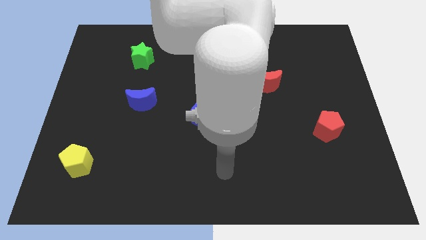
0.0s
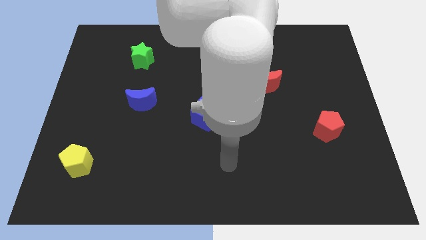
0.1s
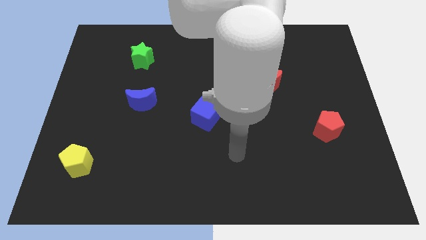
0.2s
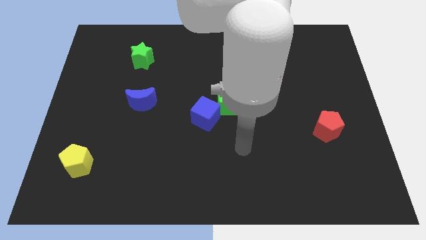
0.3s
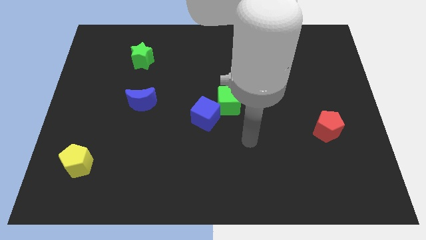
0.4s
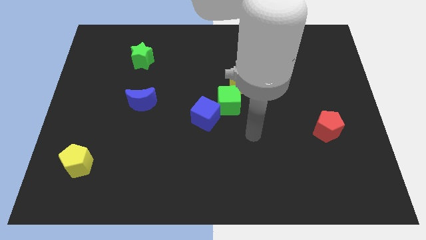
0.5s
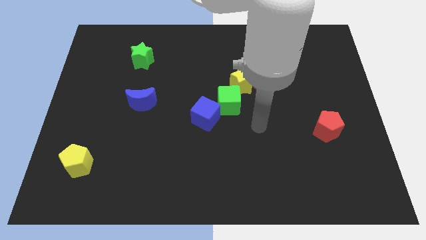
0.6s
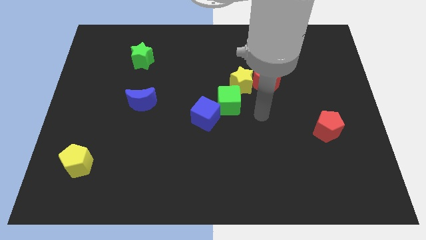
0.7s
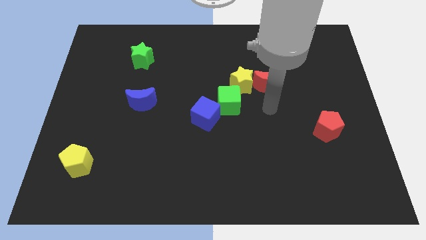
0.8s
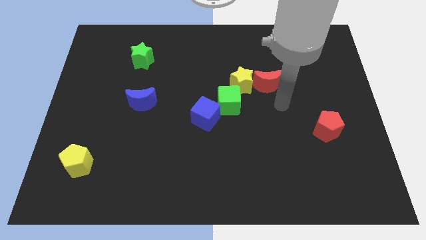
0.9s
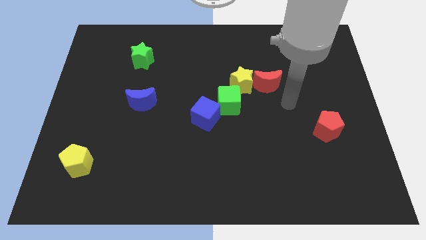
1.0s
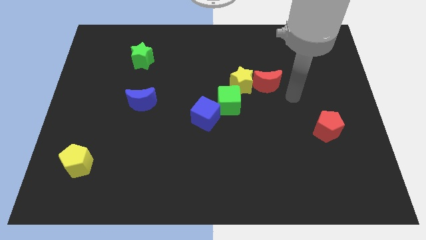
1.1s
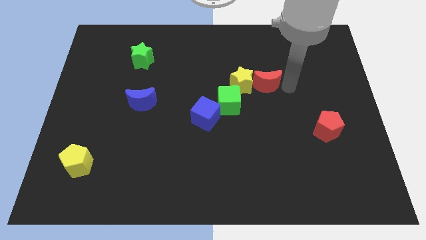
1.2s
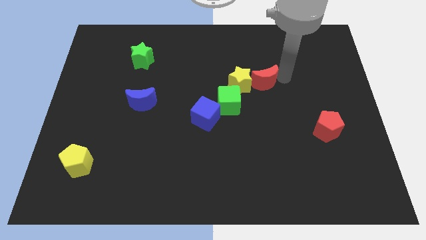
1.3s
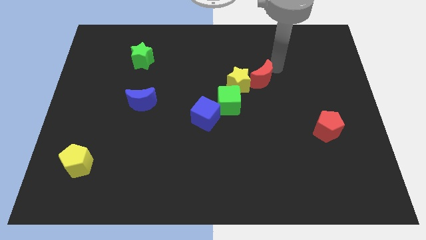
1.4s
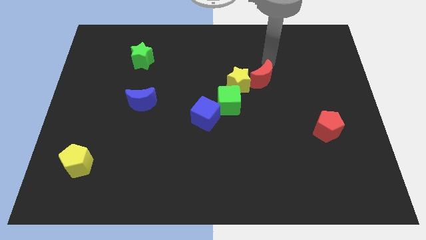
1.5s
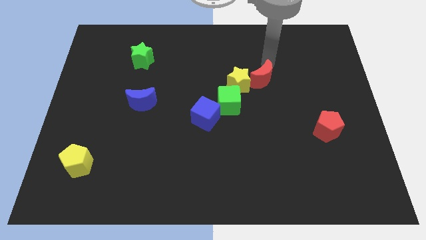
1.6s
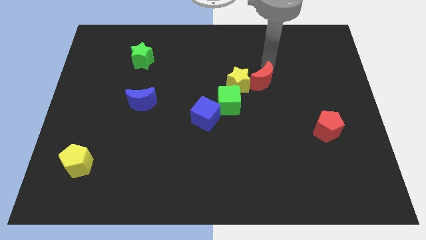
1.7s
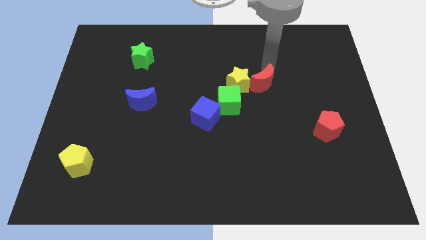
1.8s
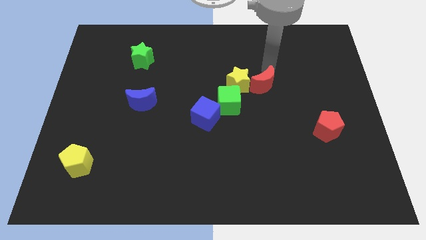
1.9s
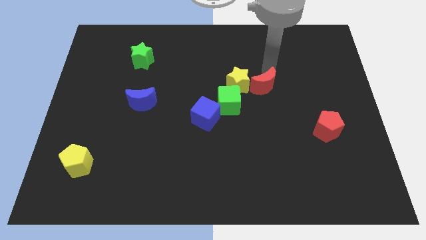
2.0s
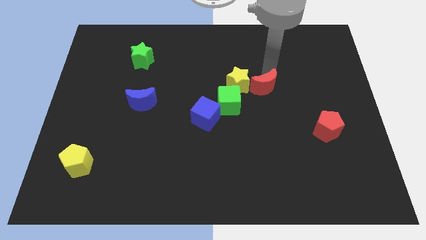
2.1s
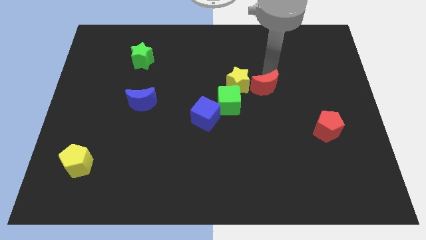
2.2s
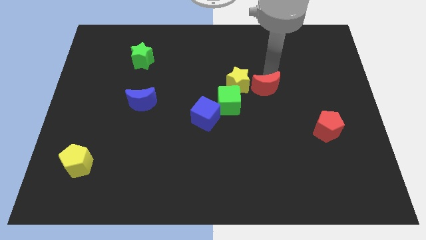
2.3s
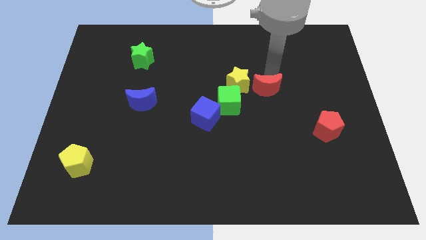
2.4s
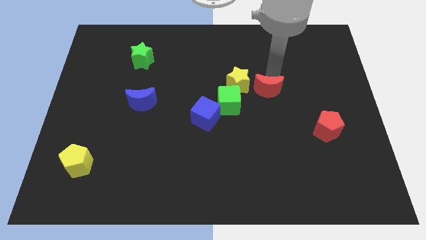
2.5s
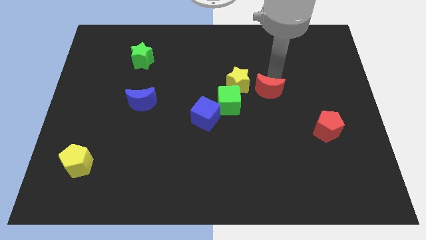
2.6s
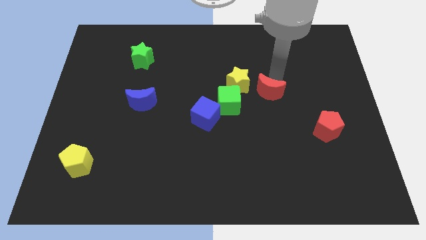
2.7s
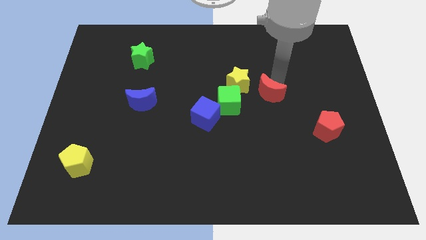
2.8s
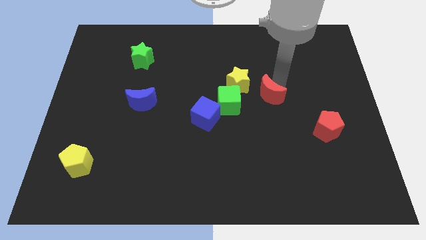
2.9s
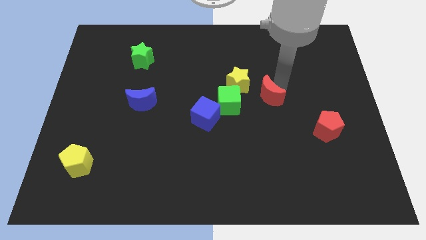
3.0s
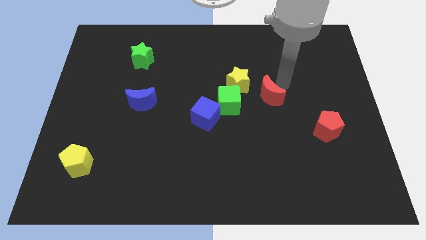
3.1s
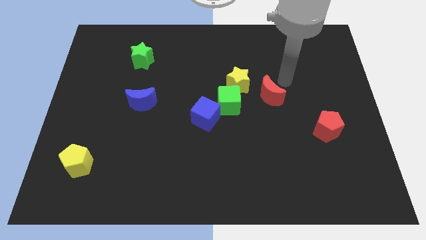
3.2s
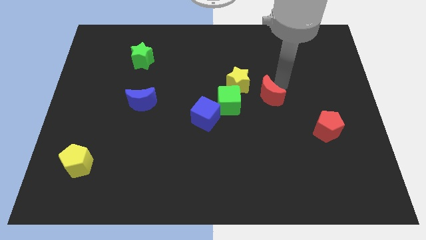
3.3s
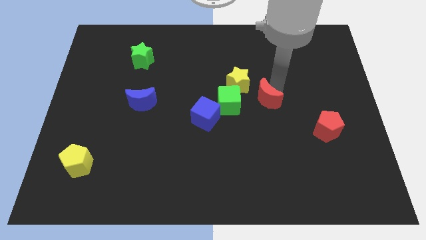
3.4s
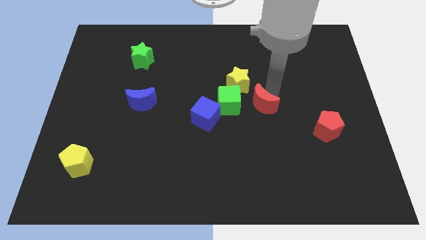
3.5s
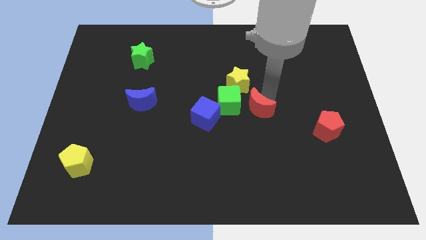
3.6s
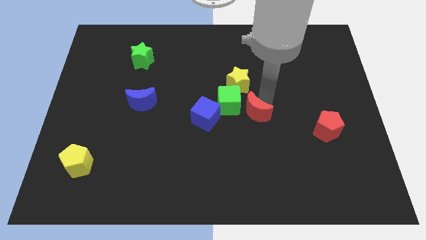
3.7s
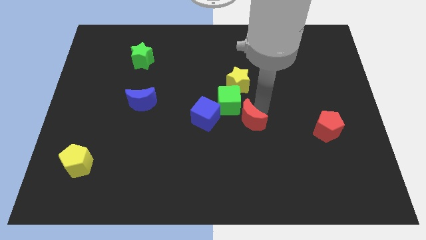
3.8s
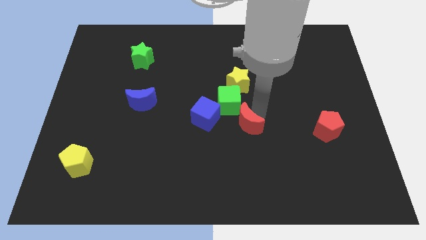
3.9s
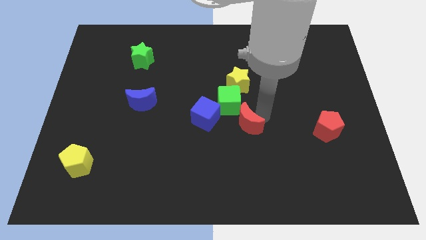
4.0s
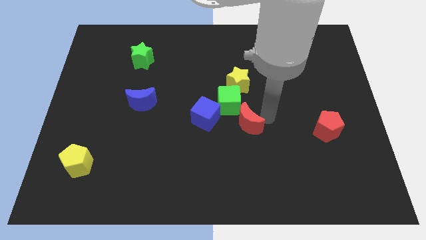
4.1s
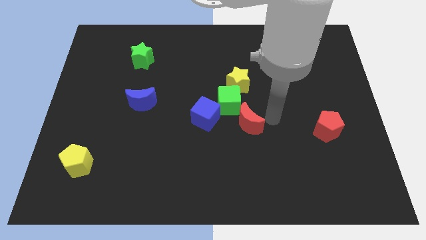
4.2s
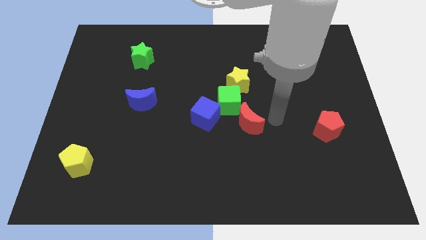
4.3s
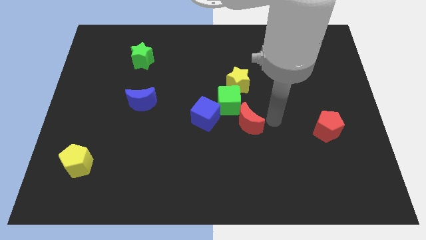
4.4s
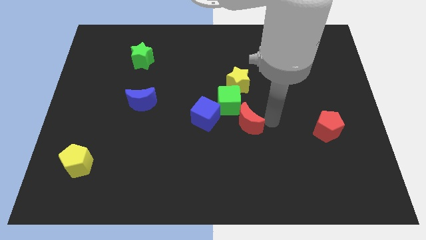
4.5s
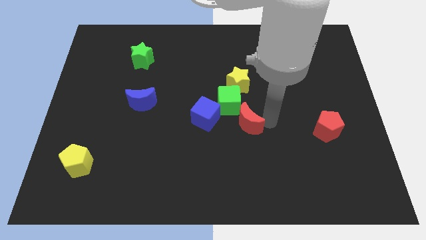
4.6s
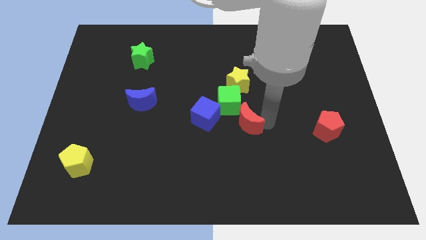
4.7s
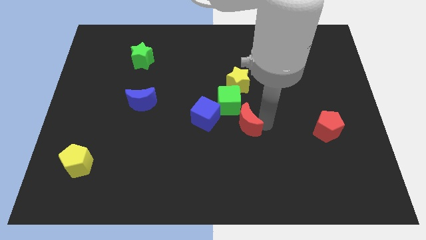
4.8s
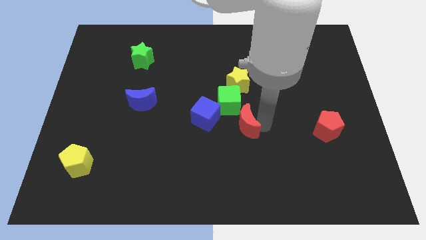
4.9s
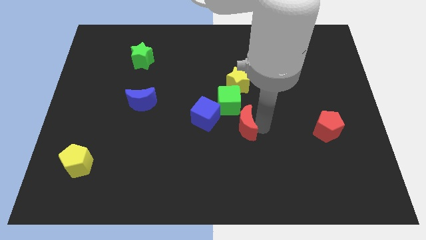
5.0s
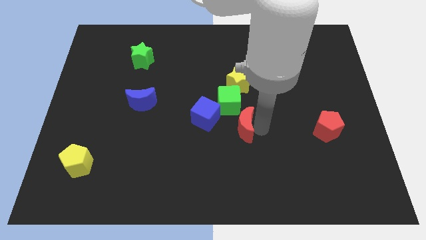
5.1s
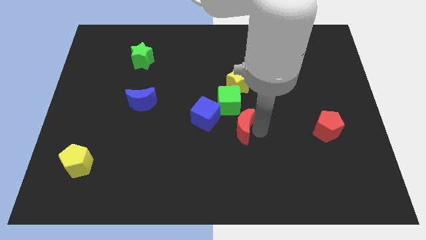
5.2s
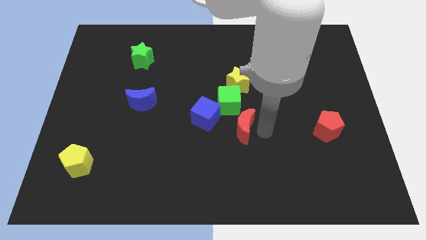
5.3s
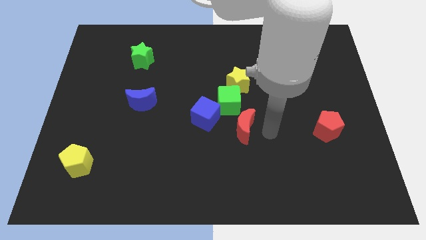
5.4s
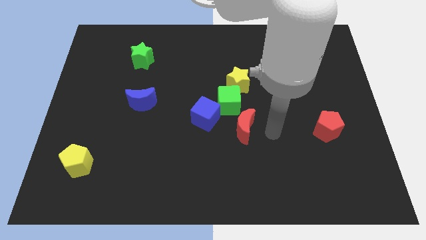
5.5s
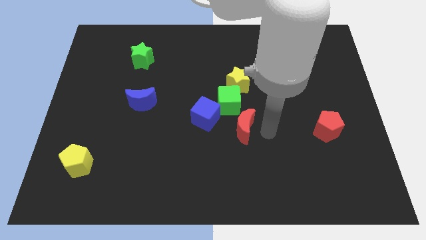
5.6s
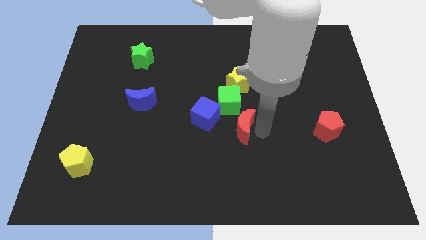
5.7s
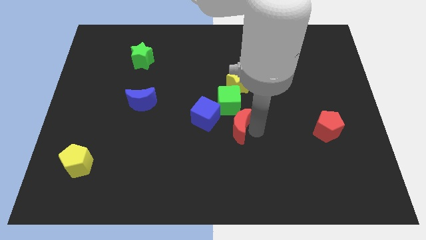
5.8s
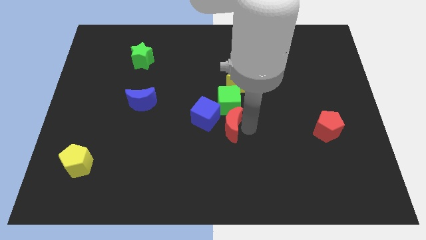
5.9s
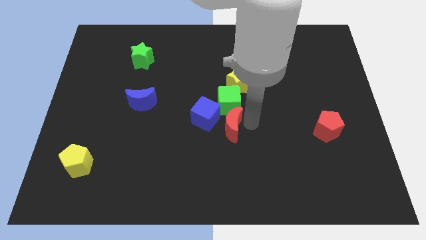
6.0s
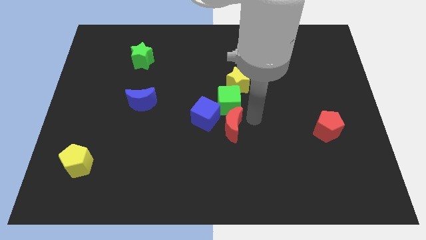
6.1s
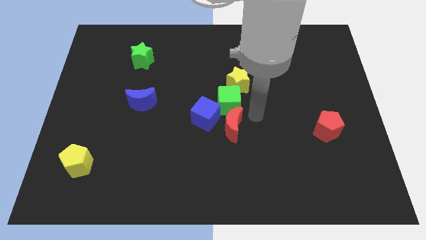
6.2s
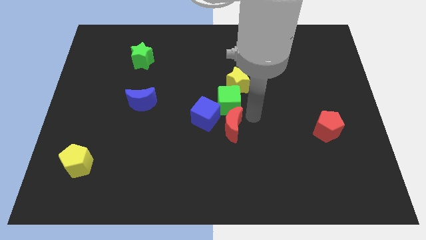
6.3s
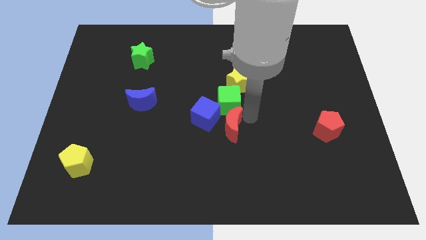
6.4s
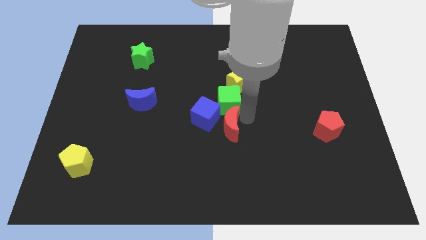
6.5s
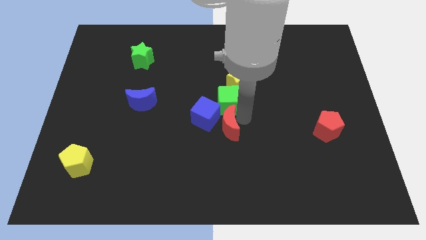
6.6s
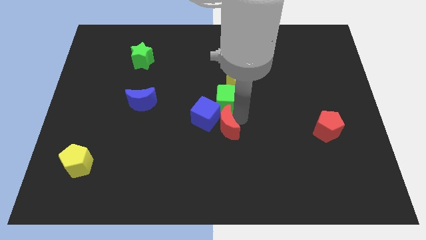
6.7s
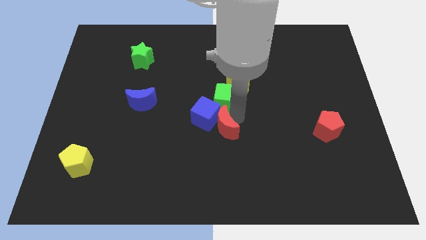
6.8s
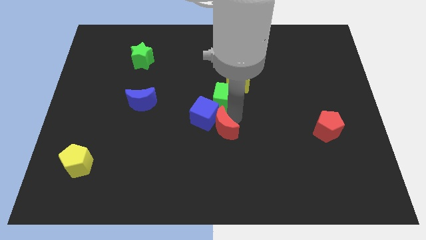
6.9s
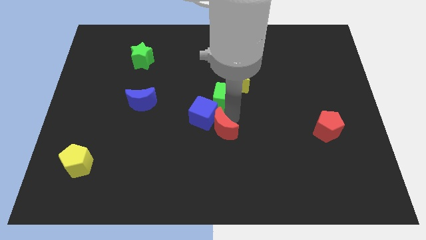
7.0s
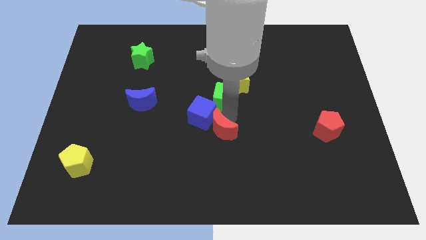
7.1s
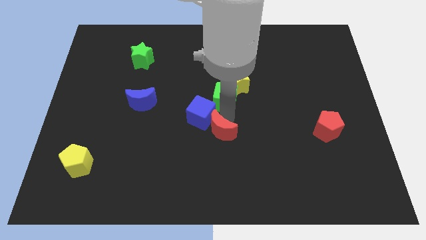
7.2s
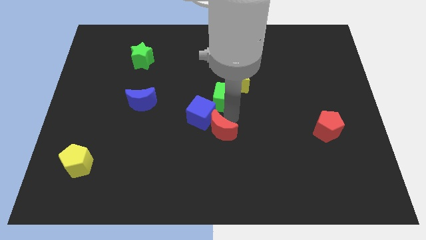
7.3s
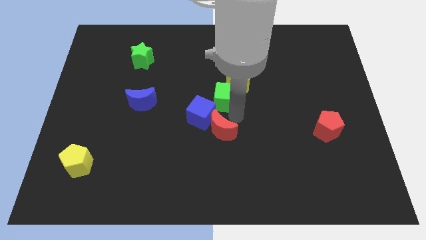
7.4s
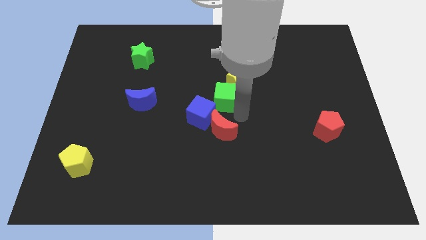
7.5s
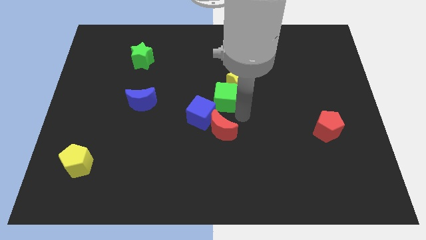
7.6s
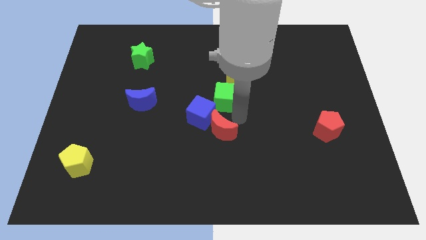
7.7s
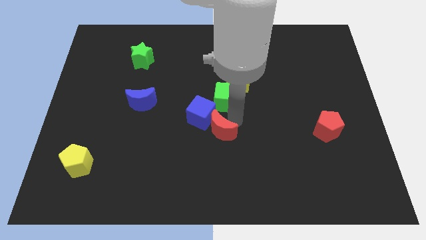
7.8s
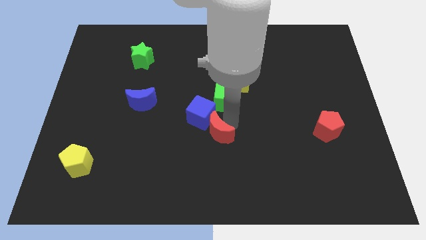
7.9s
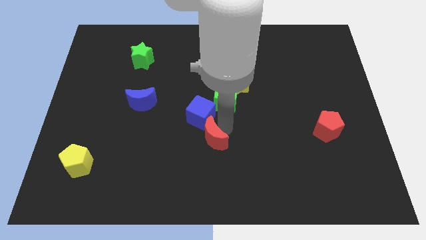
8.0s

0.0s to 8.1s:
slide the red moon diagonally downwards and left
